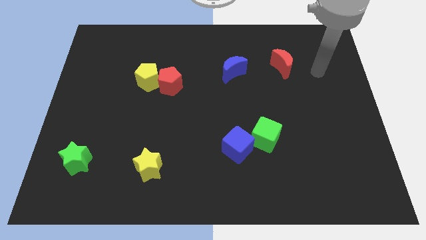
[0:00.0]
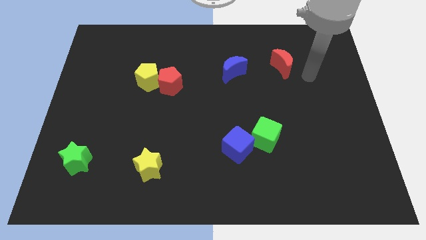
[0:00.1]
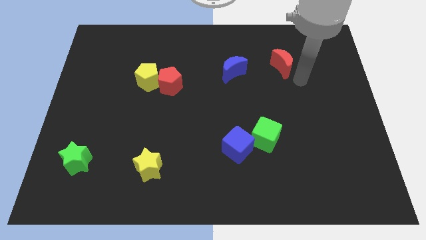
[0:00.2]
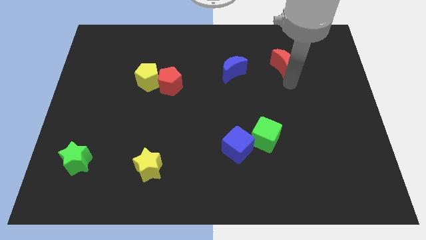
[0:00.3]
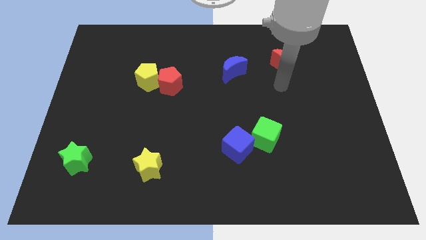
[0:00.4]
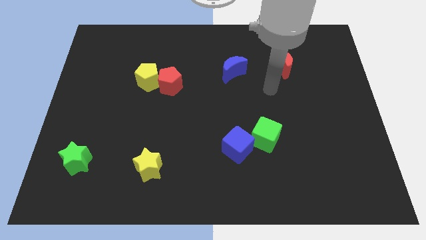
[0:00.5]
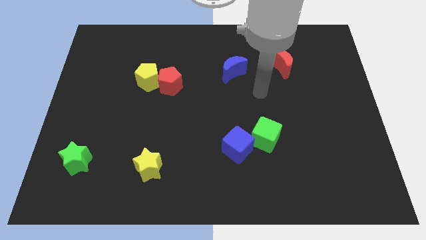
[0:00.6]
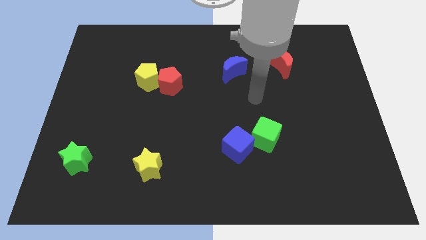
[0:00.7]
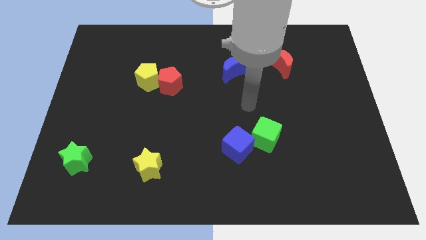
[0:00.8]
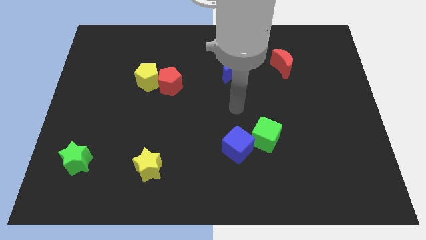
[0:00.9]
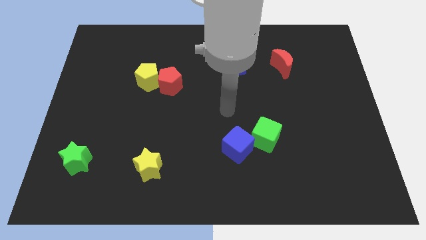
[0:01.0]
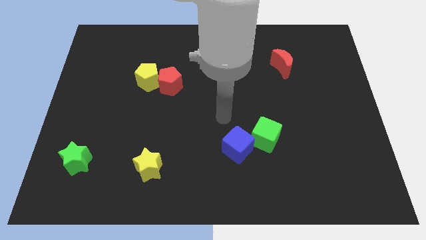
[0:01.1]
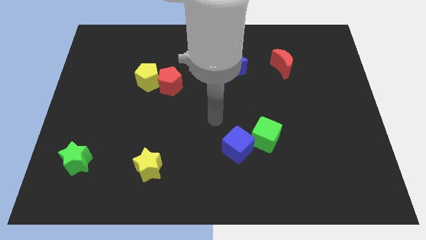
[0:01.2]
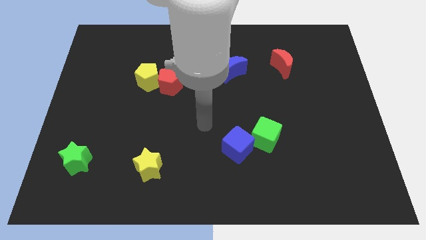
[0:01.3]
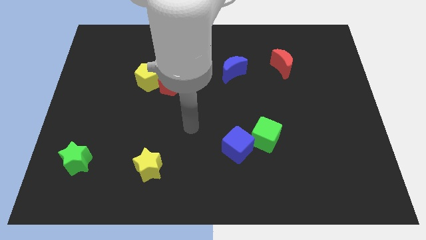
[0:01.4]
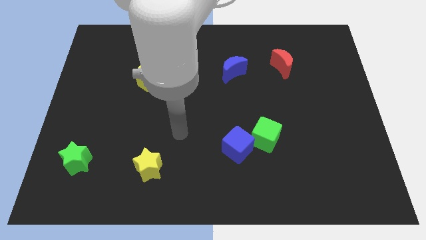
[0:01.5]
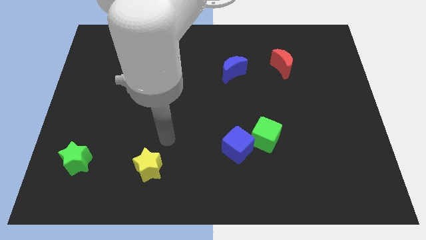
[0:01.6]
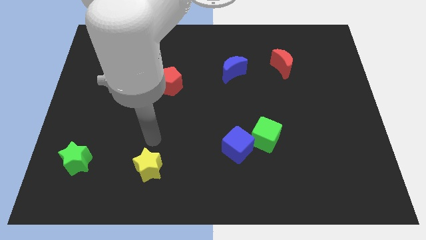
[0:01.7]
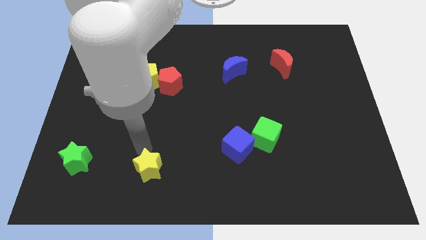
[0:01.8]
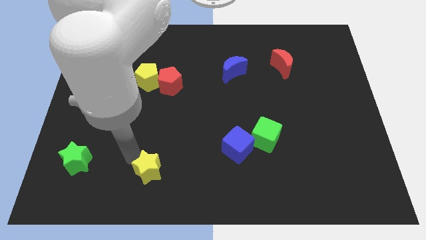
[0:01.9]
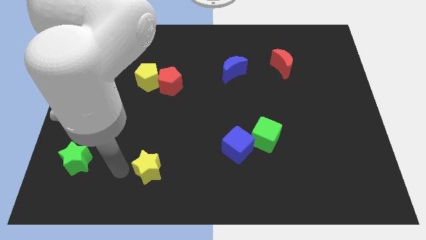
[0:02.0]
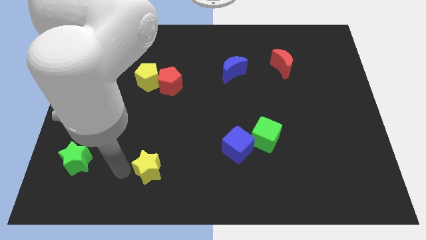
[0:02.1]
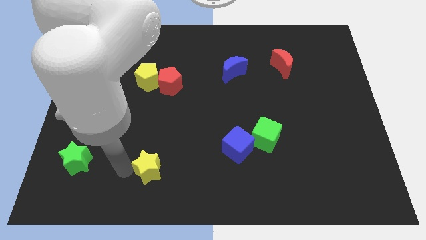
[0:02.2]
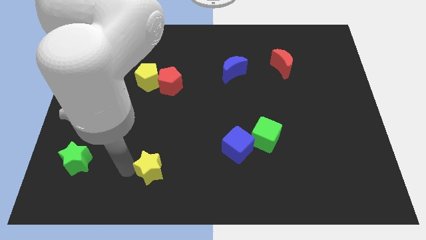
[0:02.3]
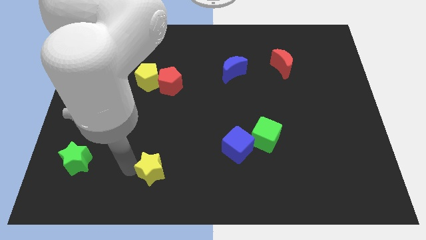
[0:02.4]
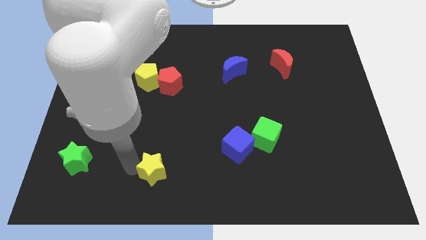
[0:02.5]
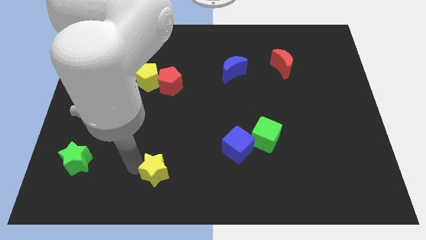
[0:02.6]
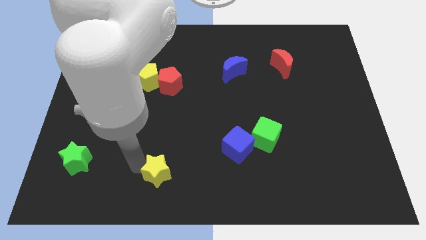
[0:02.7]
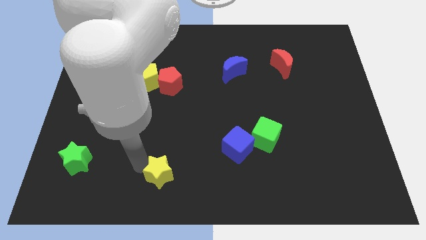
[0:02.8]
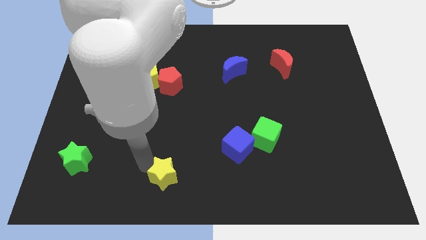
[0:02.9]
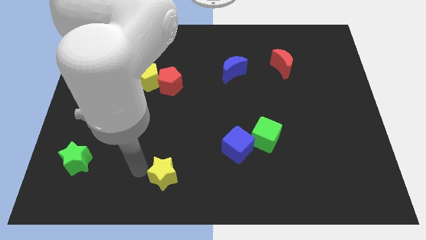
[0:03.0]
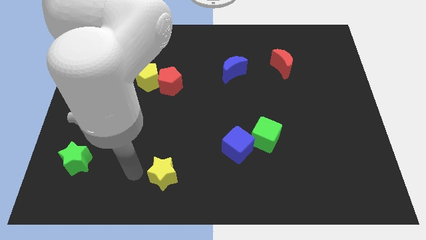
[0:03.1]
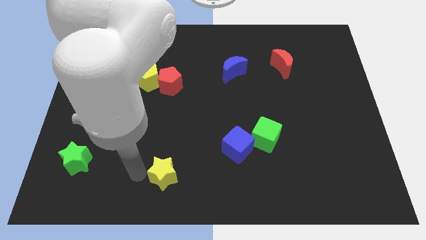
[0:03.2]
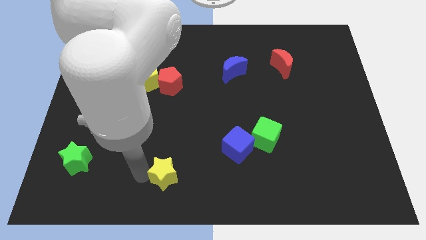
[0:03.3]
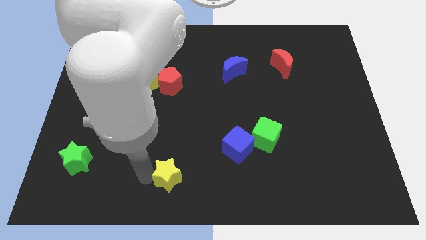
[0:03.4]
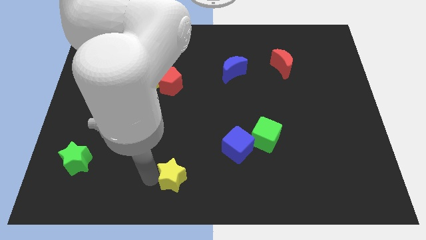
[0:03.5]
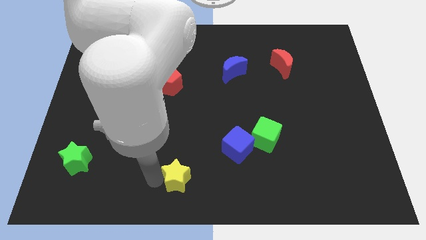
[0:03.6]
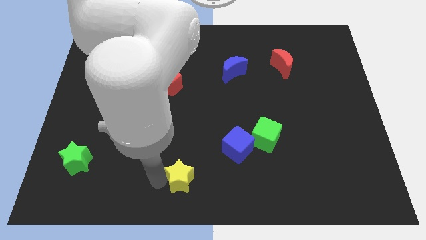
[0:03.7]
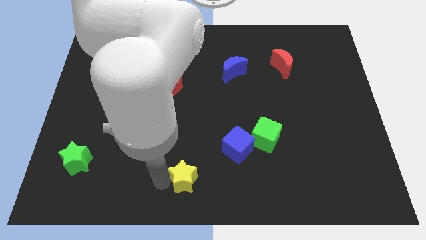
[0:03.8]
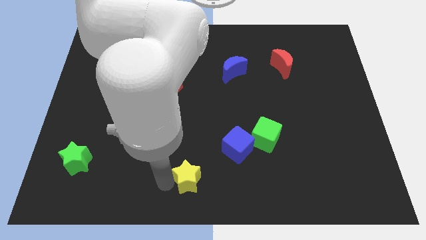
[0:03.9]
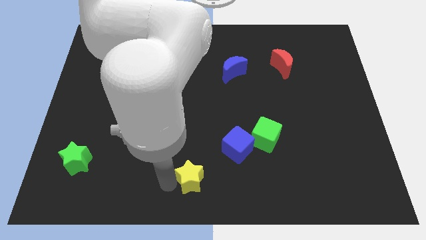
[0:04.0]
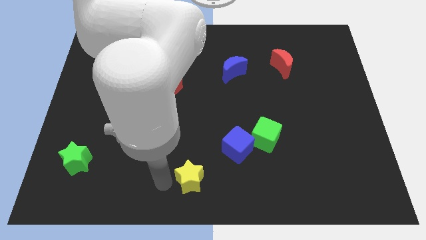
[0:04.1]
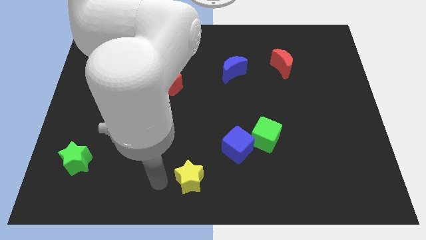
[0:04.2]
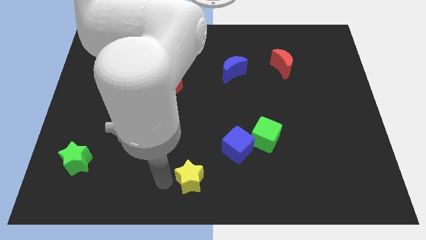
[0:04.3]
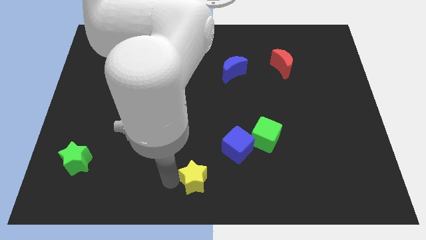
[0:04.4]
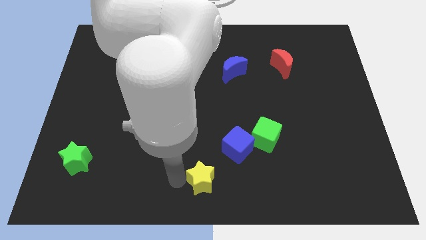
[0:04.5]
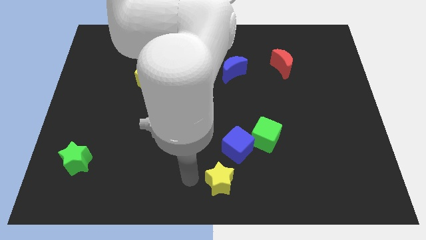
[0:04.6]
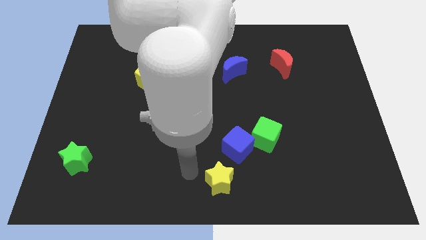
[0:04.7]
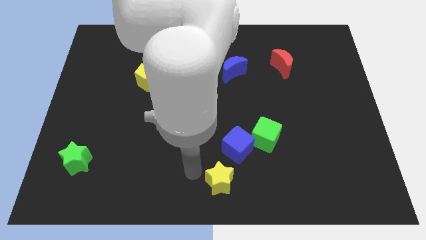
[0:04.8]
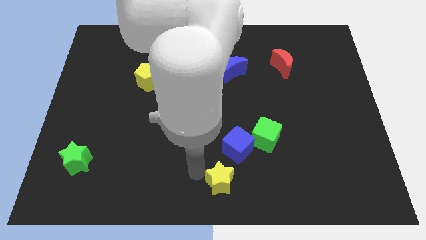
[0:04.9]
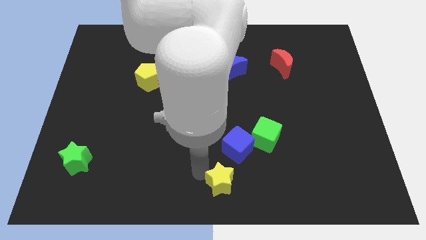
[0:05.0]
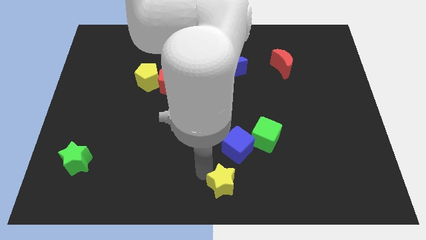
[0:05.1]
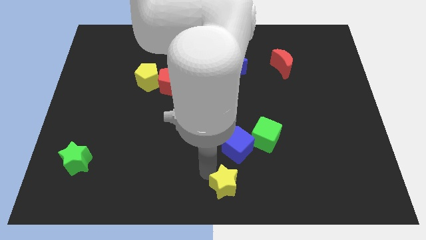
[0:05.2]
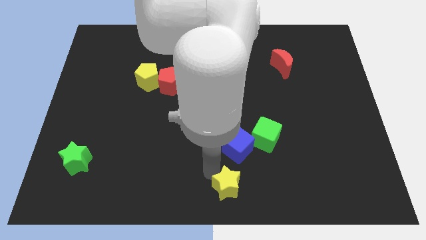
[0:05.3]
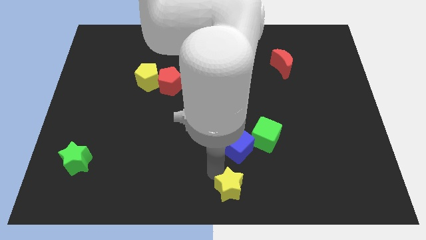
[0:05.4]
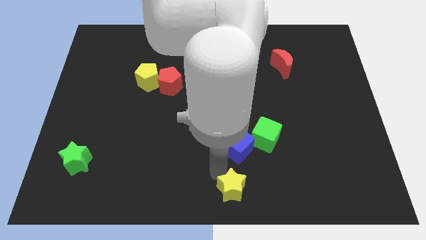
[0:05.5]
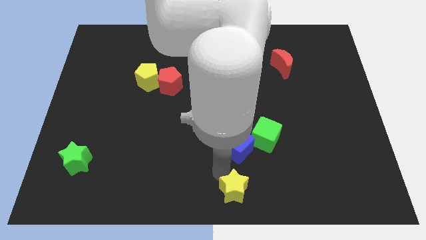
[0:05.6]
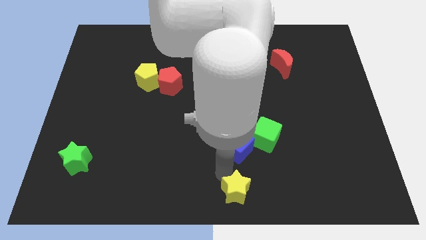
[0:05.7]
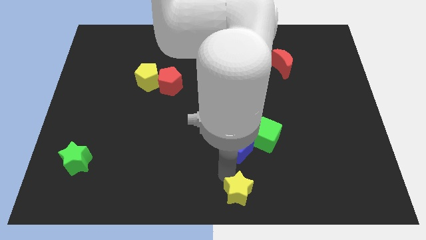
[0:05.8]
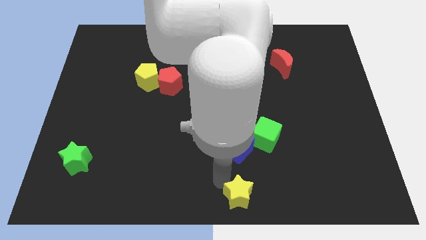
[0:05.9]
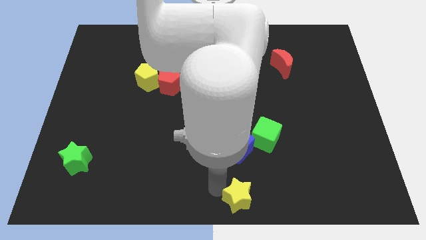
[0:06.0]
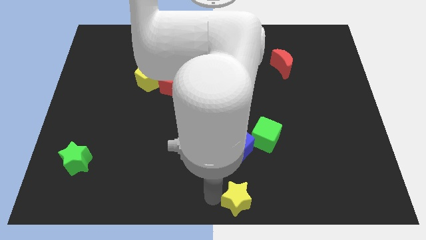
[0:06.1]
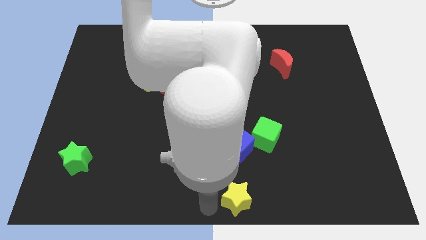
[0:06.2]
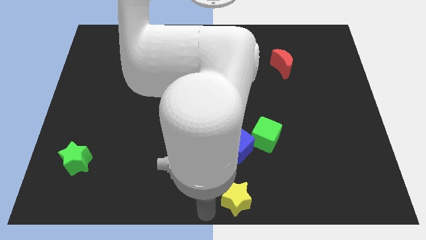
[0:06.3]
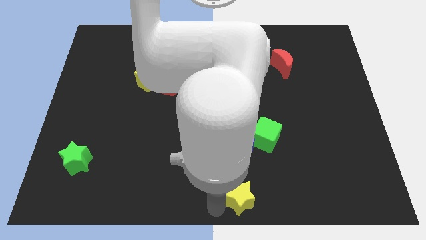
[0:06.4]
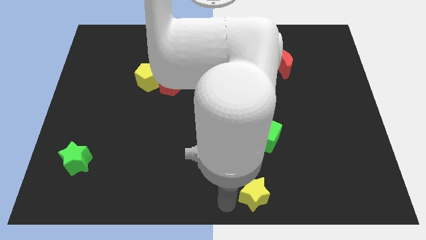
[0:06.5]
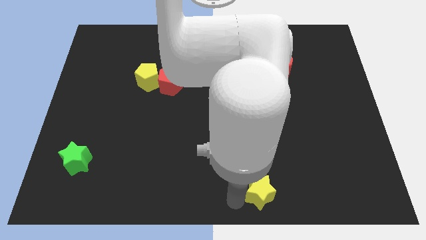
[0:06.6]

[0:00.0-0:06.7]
slide the yellow star to the right

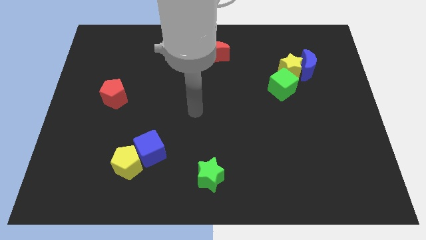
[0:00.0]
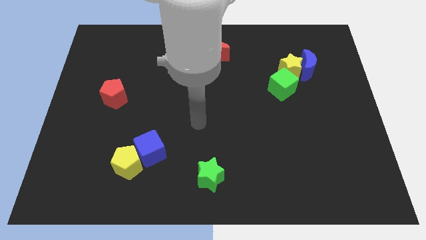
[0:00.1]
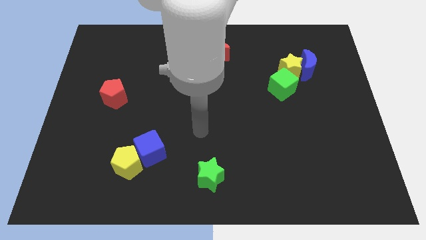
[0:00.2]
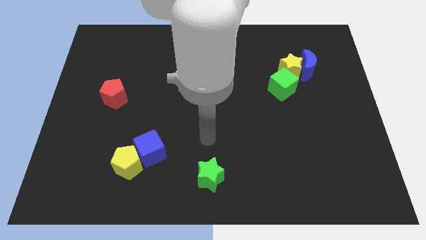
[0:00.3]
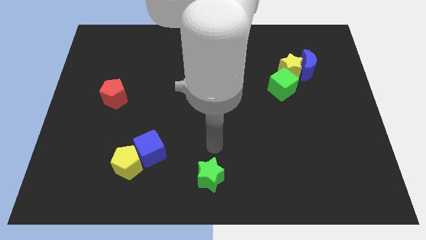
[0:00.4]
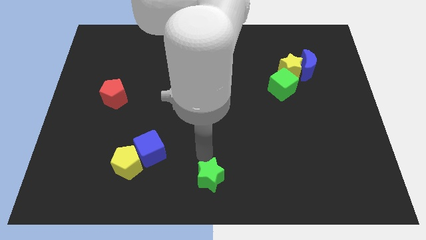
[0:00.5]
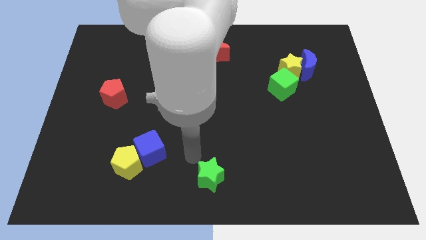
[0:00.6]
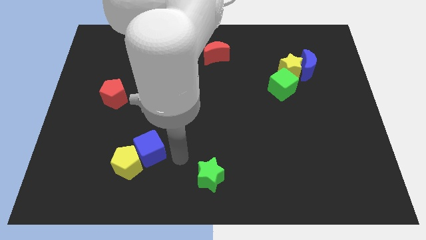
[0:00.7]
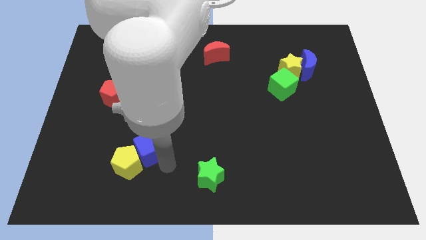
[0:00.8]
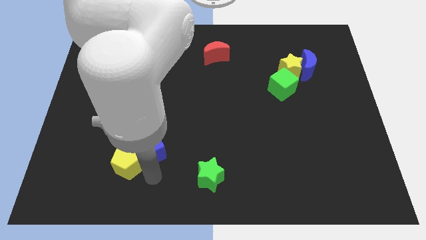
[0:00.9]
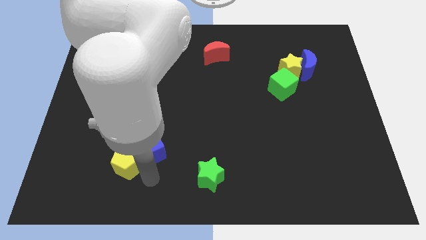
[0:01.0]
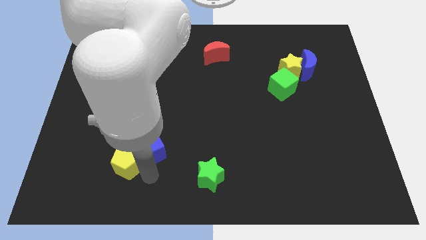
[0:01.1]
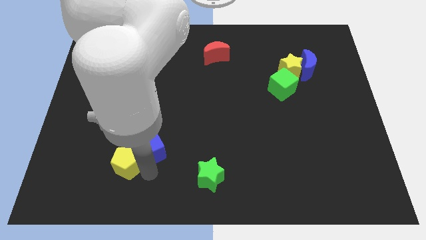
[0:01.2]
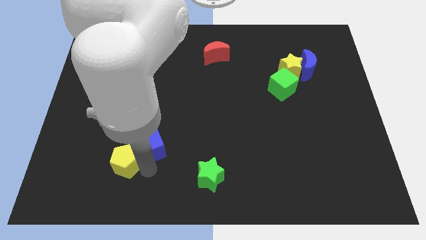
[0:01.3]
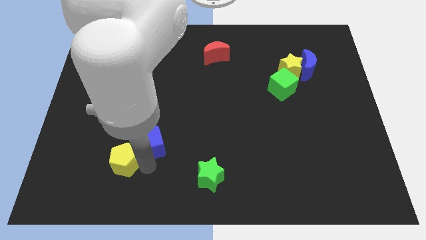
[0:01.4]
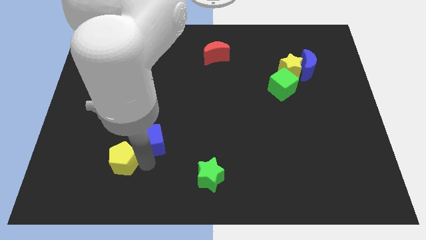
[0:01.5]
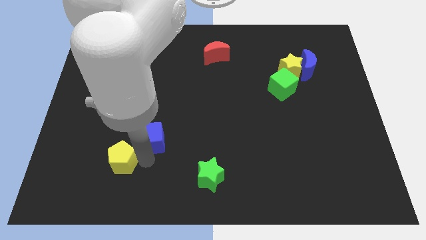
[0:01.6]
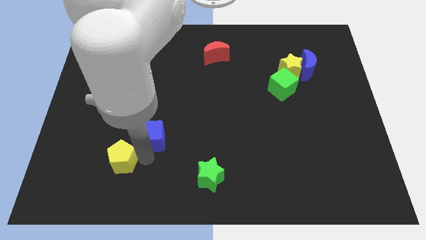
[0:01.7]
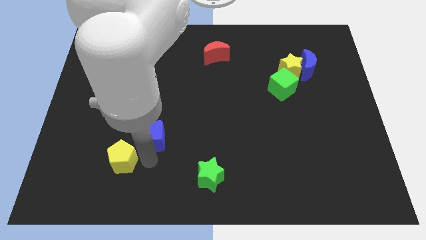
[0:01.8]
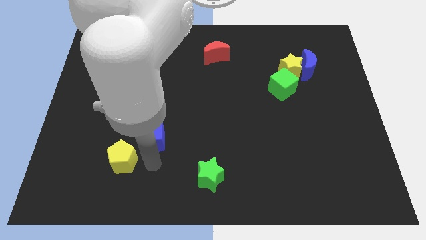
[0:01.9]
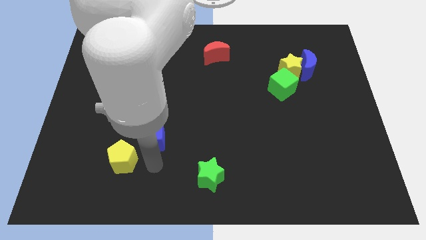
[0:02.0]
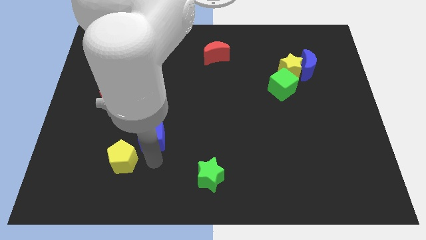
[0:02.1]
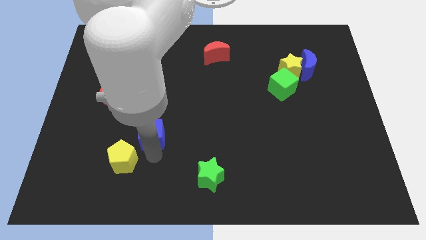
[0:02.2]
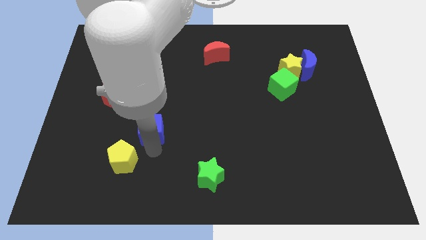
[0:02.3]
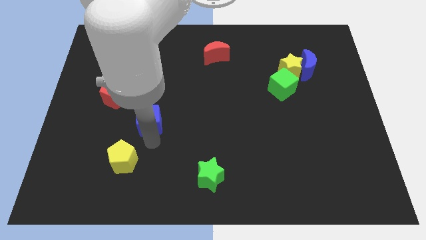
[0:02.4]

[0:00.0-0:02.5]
slightly push the blue cube upwards
